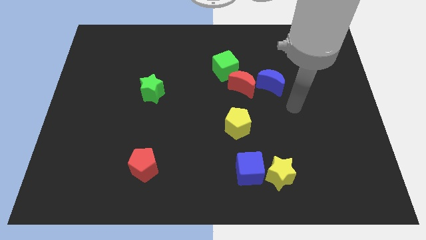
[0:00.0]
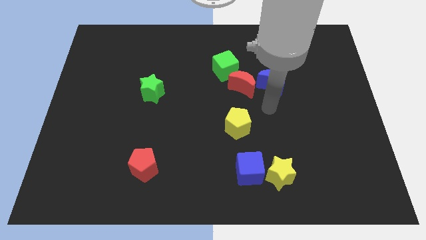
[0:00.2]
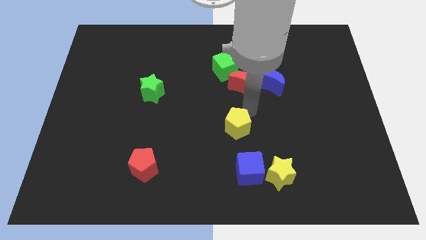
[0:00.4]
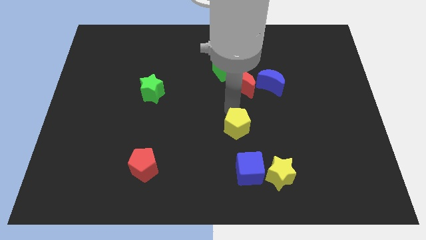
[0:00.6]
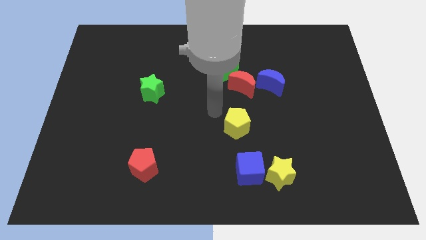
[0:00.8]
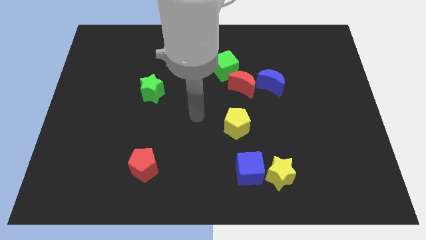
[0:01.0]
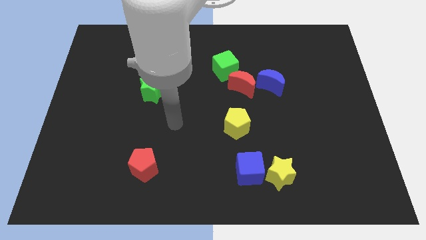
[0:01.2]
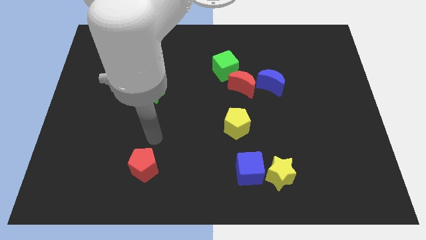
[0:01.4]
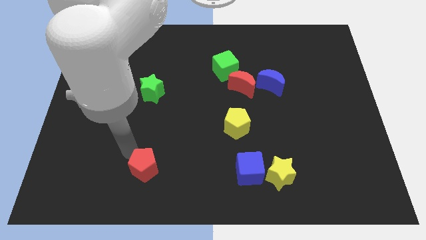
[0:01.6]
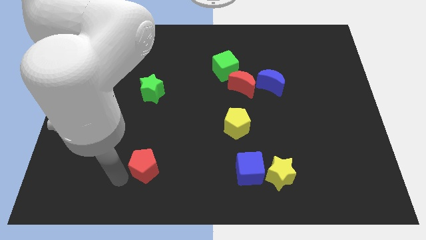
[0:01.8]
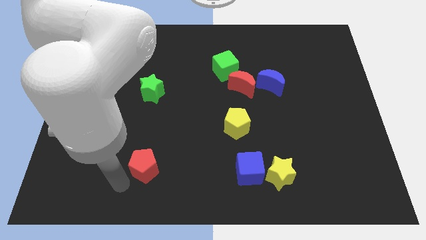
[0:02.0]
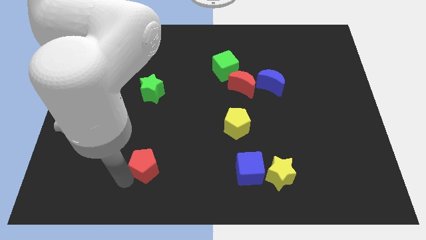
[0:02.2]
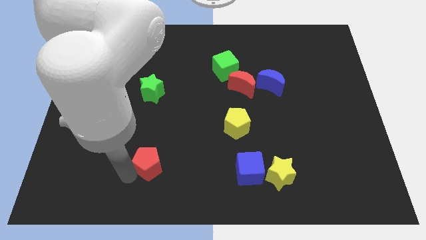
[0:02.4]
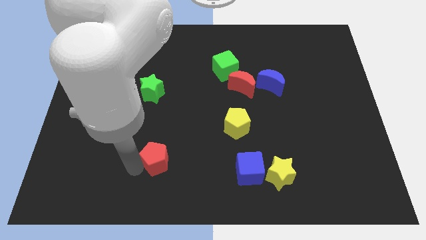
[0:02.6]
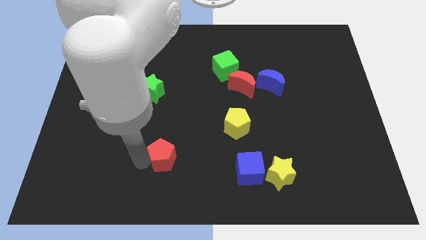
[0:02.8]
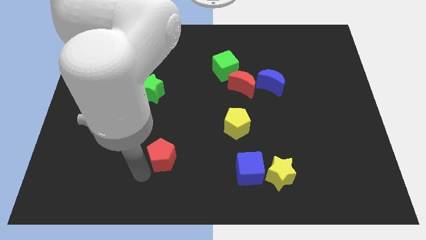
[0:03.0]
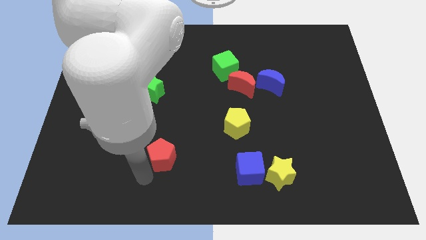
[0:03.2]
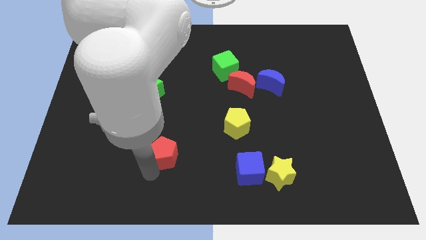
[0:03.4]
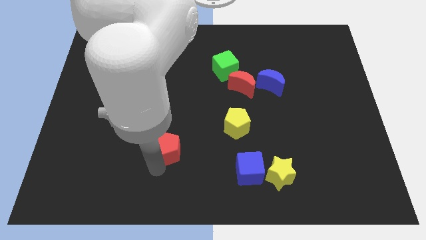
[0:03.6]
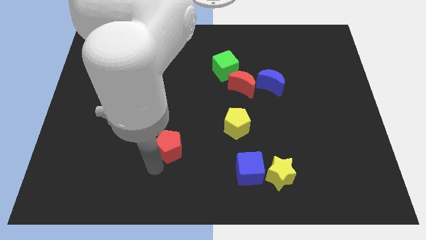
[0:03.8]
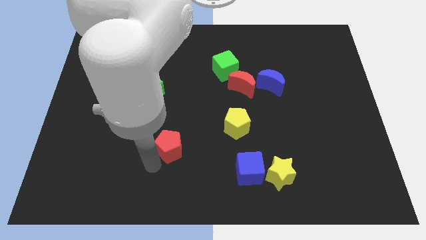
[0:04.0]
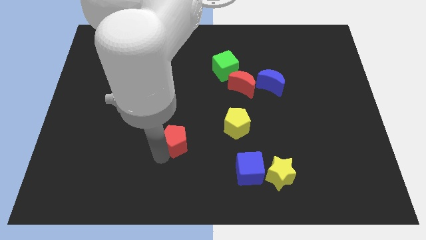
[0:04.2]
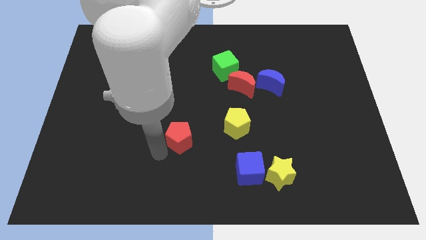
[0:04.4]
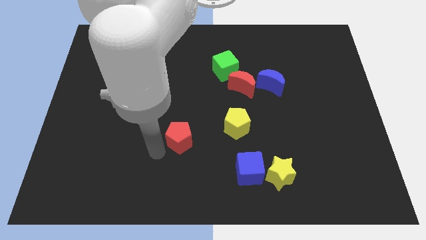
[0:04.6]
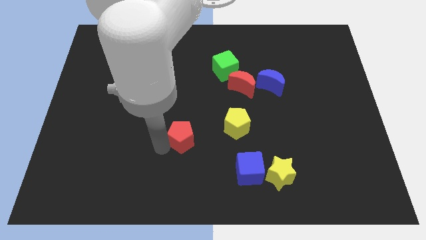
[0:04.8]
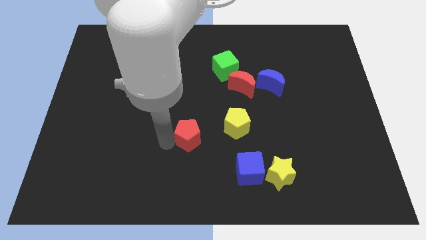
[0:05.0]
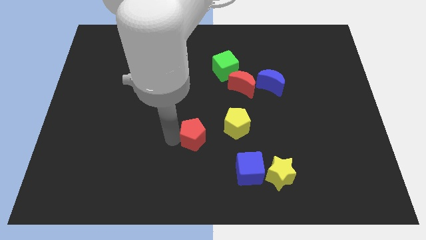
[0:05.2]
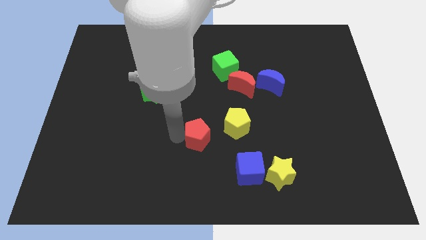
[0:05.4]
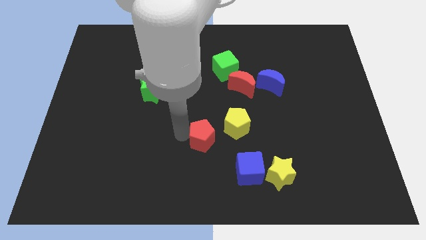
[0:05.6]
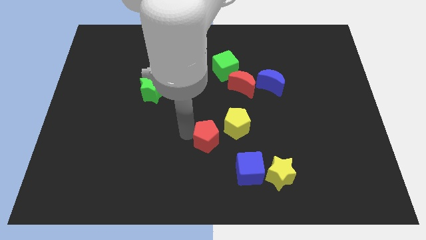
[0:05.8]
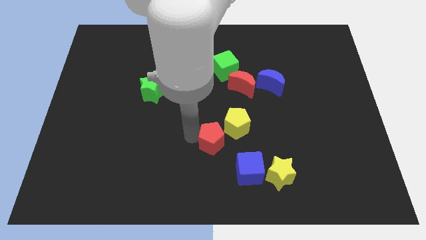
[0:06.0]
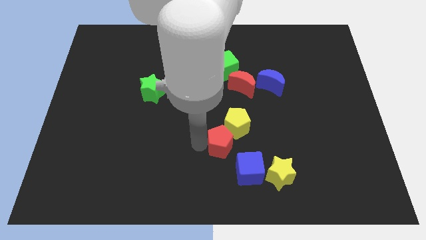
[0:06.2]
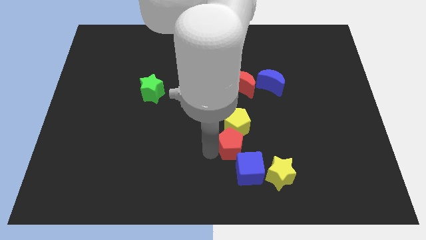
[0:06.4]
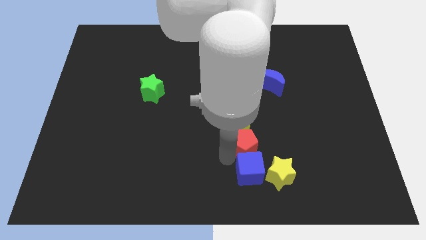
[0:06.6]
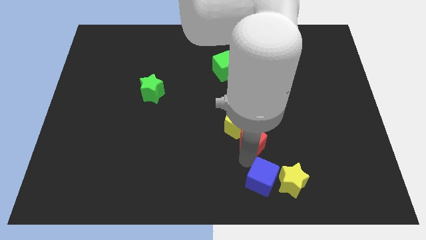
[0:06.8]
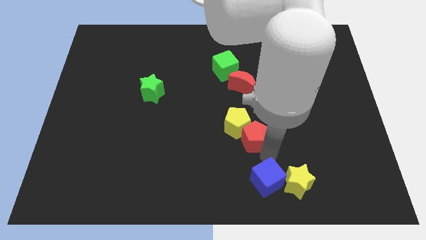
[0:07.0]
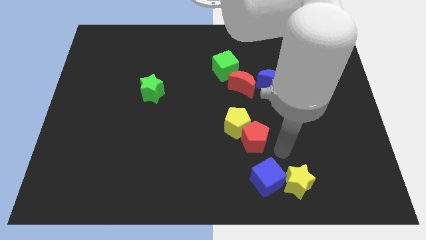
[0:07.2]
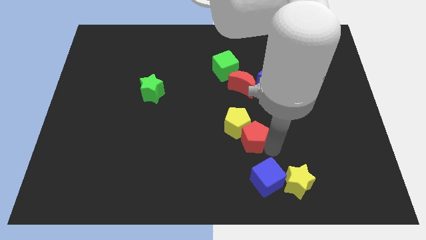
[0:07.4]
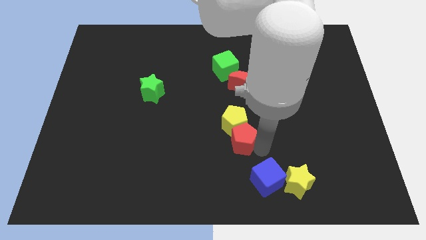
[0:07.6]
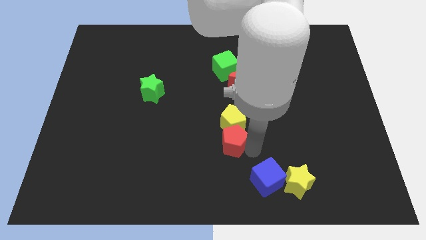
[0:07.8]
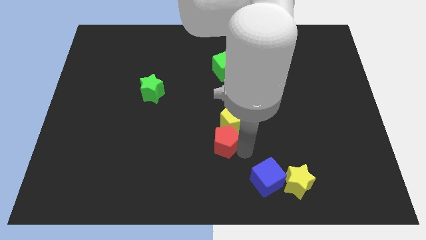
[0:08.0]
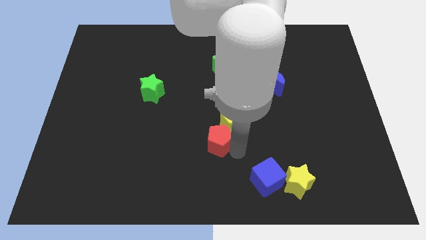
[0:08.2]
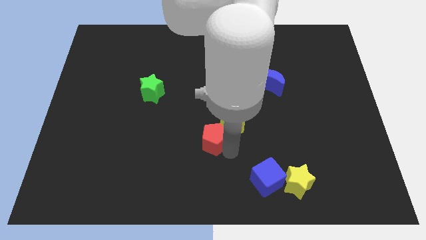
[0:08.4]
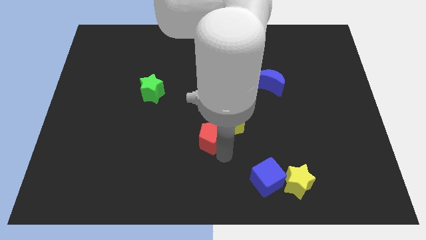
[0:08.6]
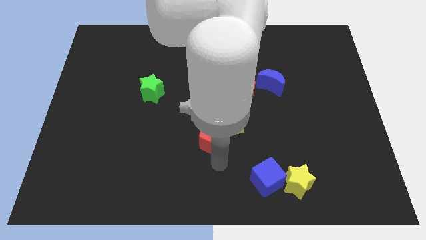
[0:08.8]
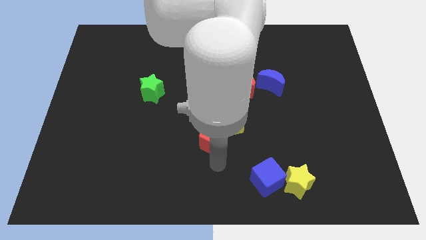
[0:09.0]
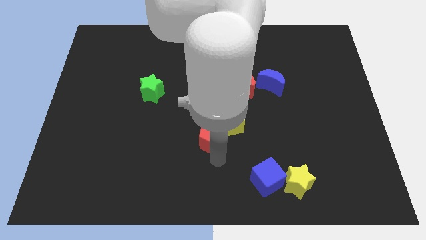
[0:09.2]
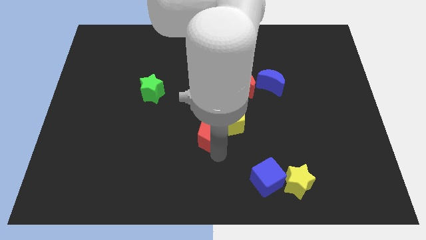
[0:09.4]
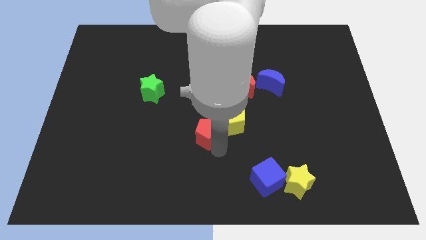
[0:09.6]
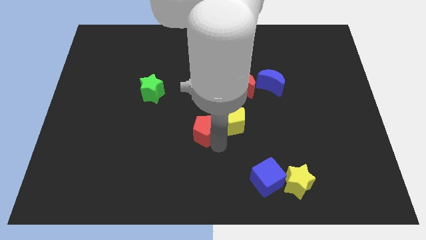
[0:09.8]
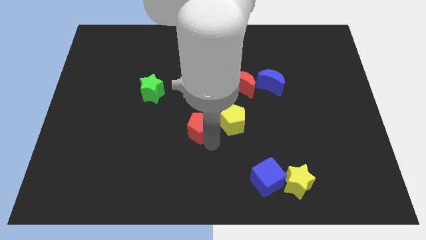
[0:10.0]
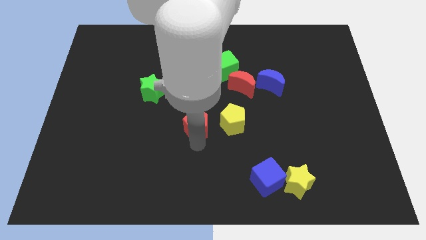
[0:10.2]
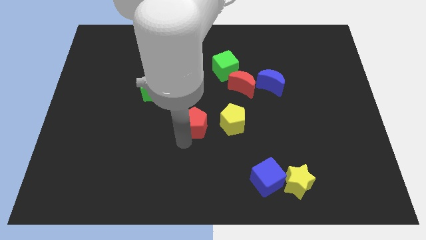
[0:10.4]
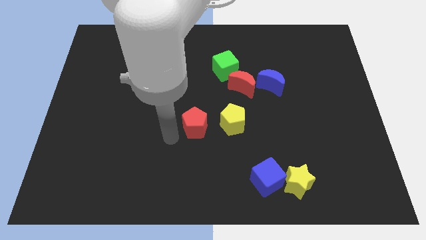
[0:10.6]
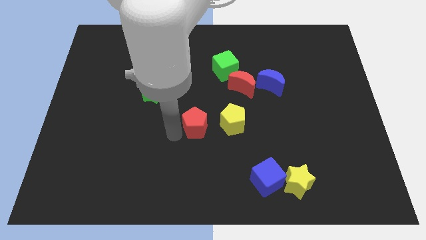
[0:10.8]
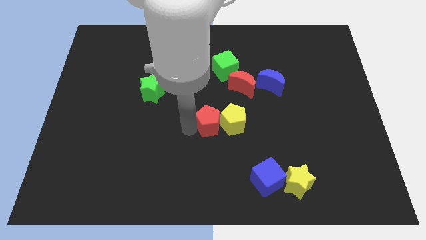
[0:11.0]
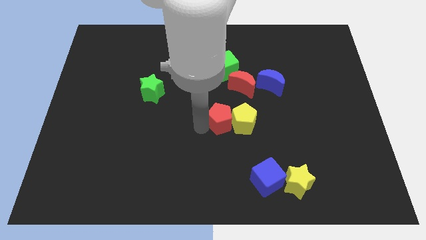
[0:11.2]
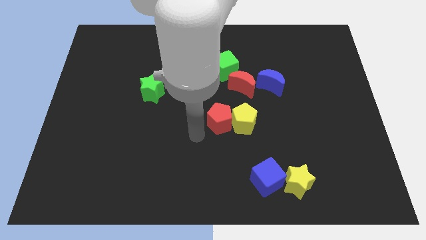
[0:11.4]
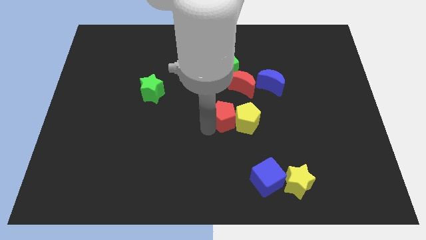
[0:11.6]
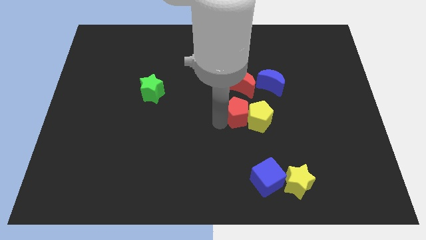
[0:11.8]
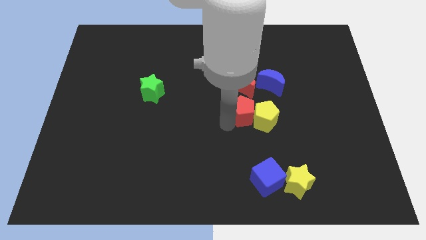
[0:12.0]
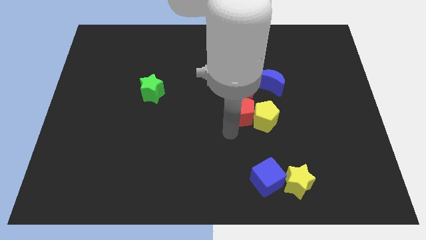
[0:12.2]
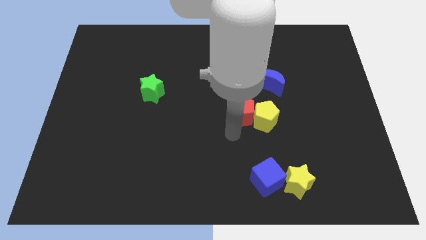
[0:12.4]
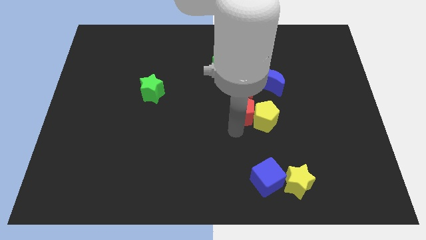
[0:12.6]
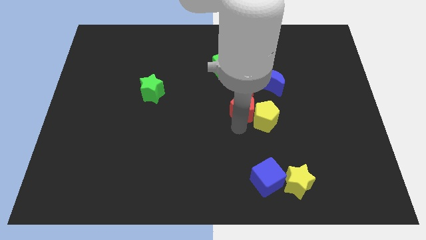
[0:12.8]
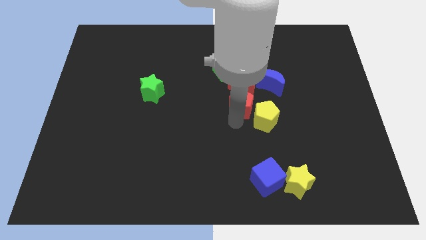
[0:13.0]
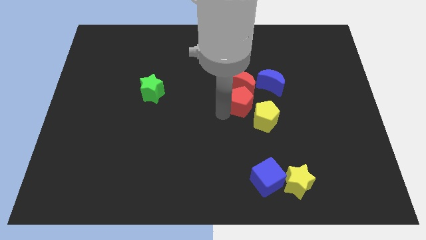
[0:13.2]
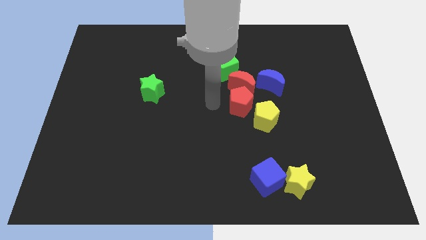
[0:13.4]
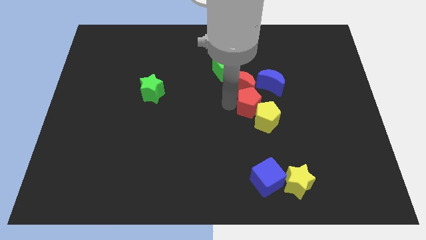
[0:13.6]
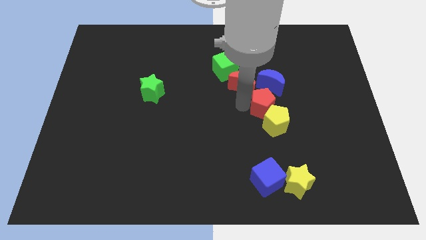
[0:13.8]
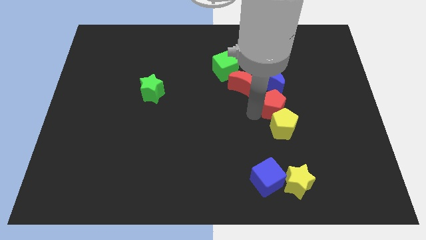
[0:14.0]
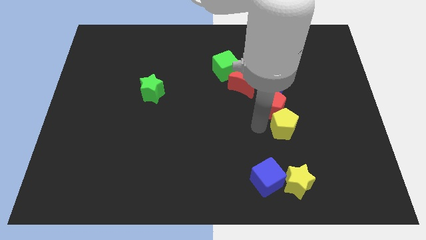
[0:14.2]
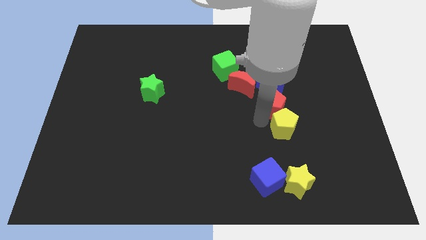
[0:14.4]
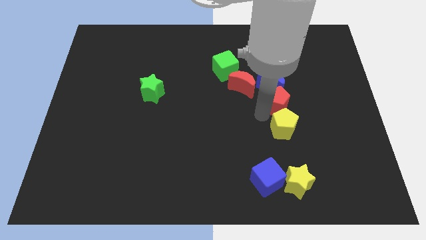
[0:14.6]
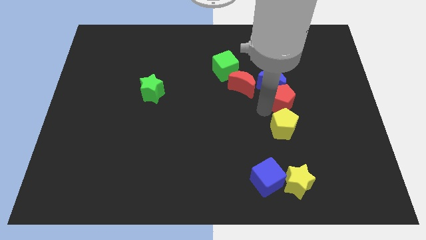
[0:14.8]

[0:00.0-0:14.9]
move the red pentagon to the right of the red moon
